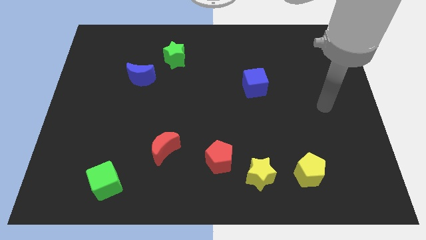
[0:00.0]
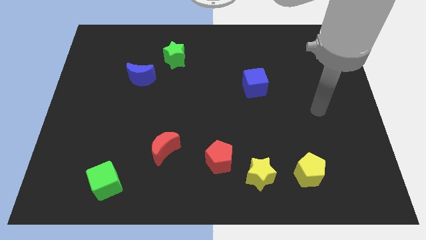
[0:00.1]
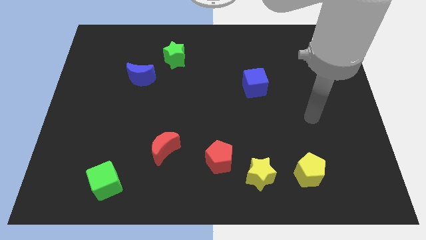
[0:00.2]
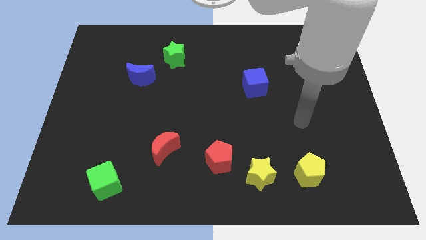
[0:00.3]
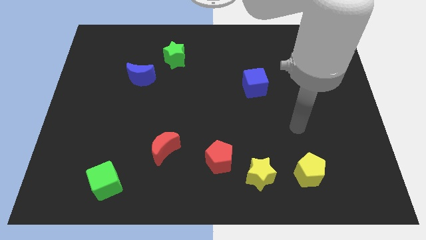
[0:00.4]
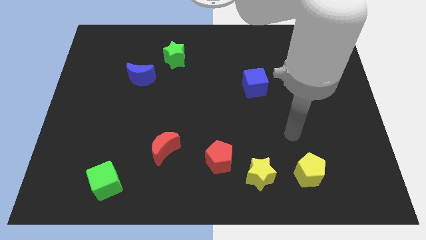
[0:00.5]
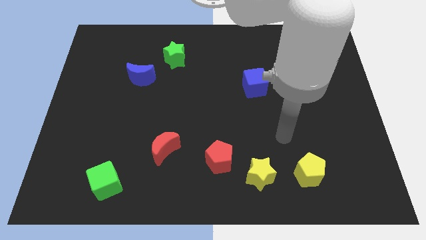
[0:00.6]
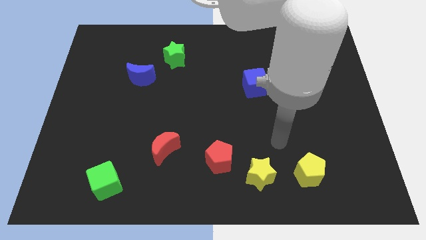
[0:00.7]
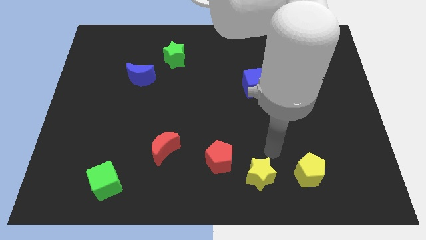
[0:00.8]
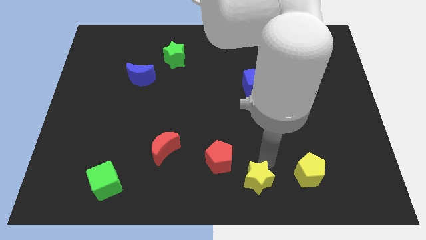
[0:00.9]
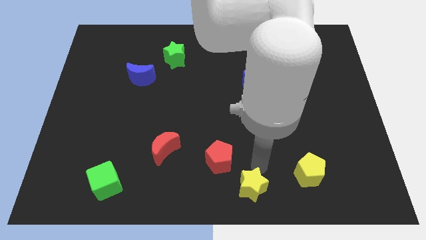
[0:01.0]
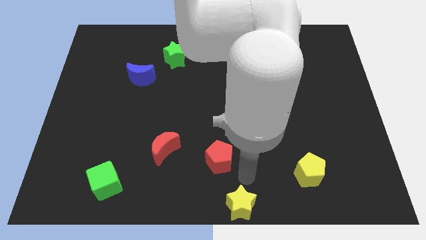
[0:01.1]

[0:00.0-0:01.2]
pull the red pentagon apart from the yellow star

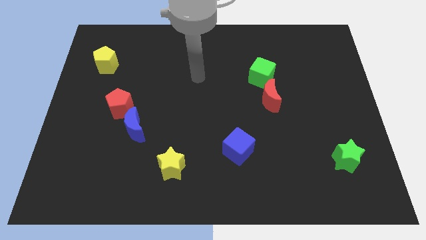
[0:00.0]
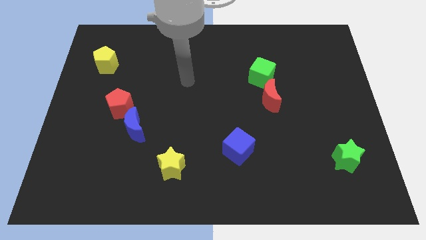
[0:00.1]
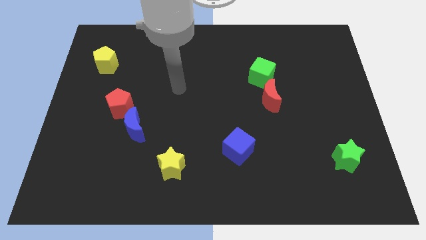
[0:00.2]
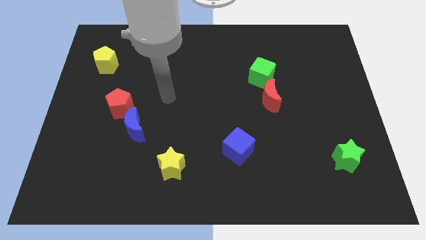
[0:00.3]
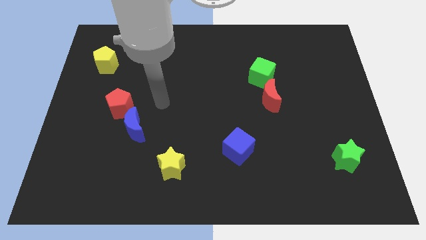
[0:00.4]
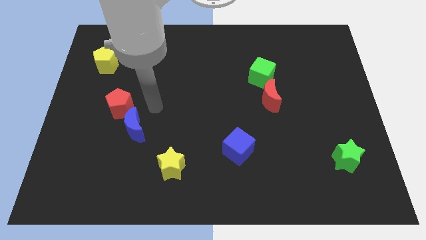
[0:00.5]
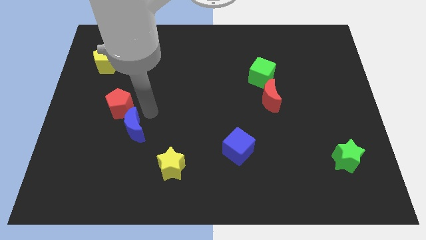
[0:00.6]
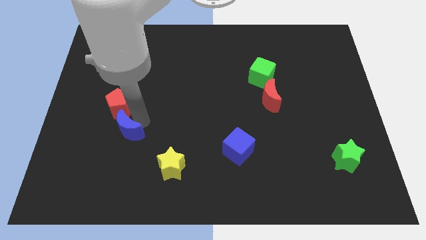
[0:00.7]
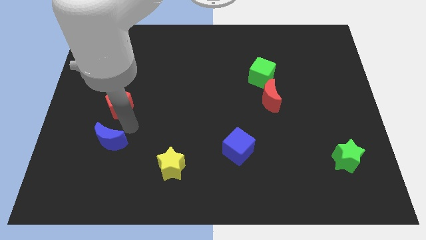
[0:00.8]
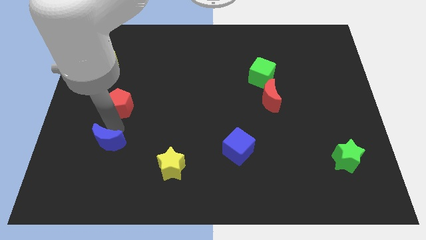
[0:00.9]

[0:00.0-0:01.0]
separate the red pentagon from the blue moon

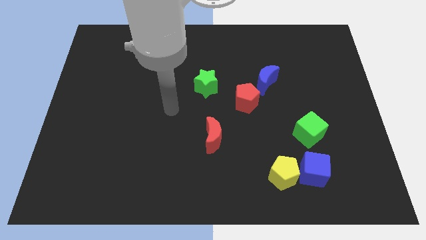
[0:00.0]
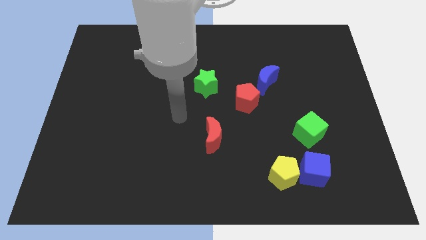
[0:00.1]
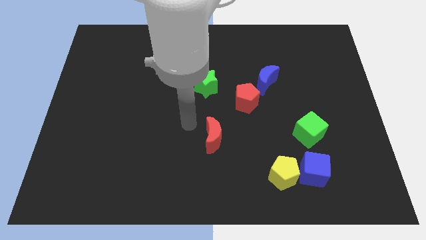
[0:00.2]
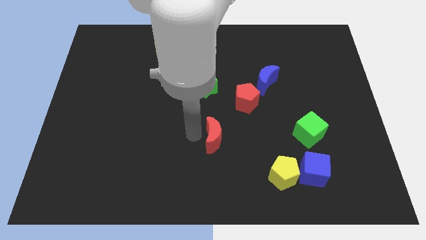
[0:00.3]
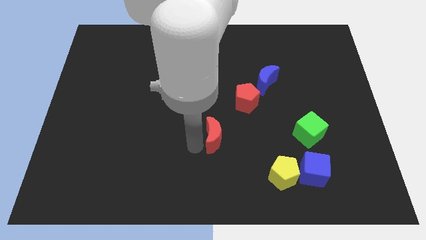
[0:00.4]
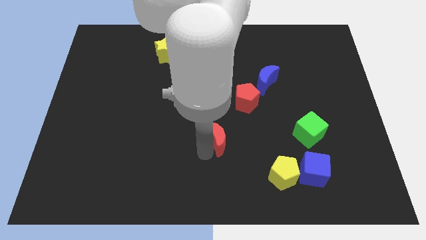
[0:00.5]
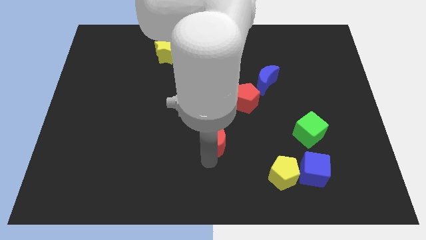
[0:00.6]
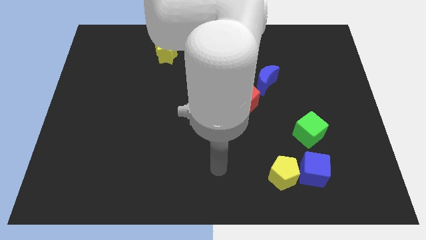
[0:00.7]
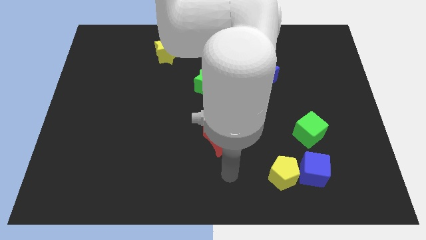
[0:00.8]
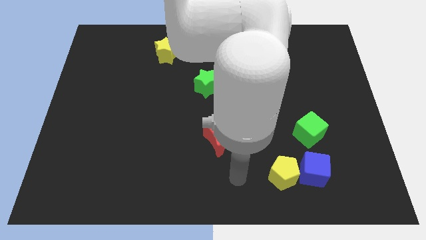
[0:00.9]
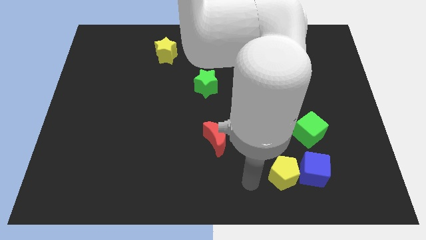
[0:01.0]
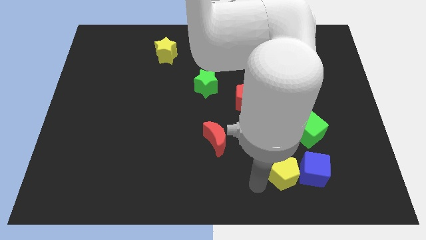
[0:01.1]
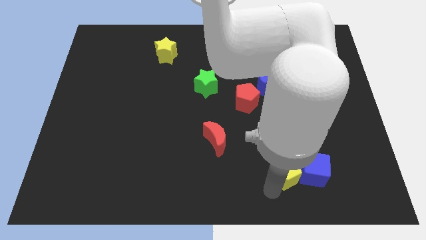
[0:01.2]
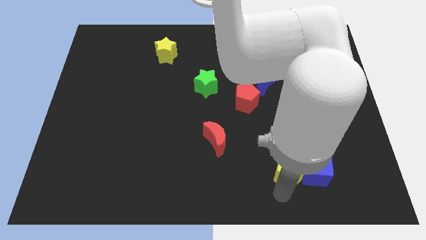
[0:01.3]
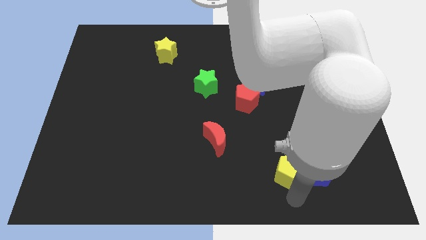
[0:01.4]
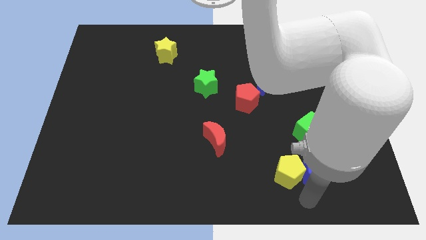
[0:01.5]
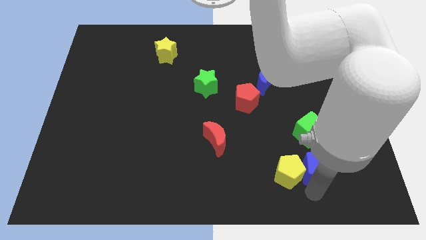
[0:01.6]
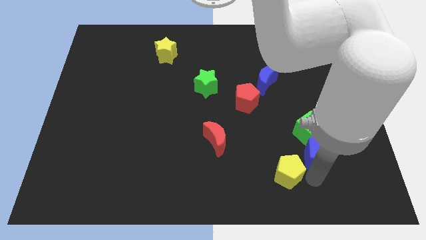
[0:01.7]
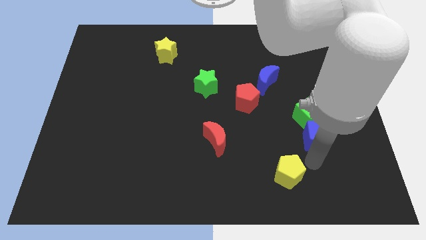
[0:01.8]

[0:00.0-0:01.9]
pull the yellow pentagon apart from the blue cube

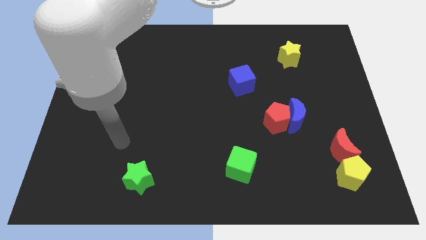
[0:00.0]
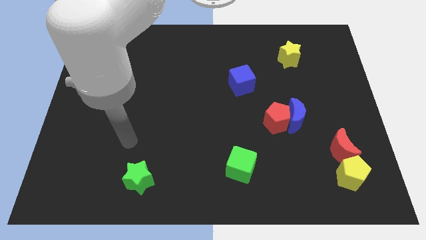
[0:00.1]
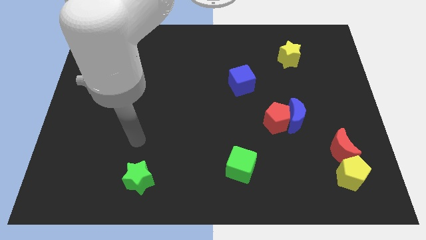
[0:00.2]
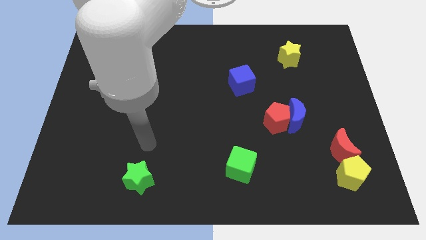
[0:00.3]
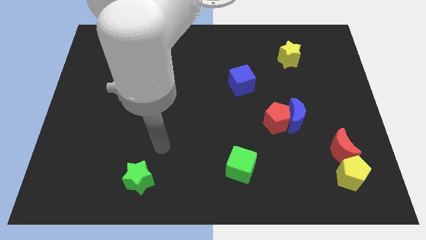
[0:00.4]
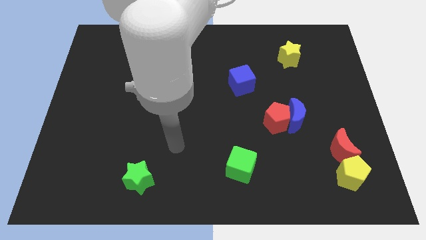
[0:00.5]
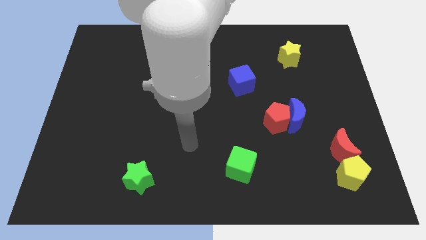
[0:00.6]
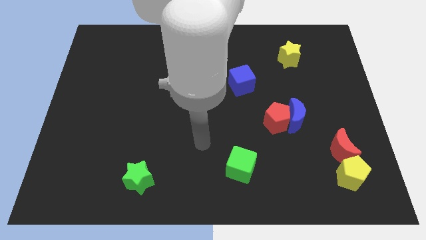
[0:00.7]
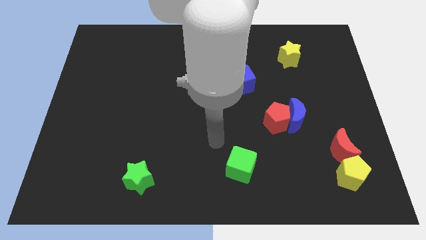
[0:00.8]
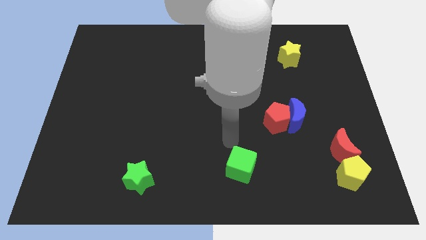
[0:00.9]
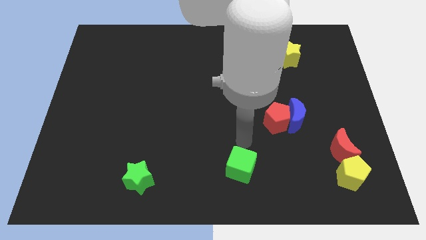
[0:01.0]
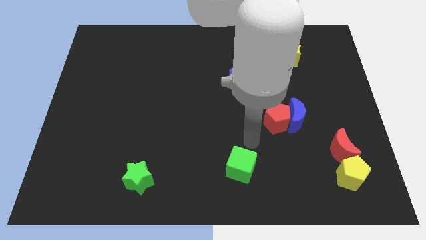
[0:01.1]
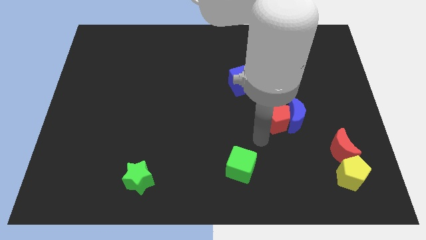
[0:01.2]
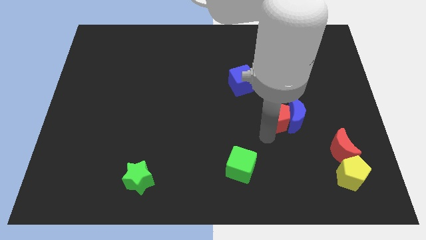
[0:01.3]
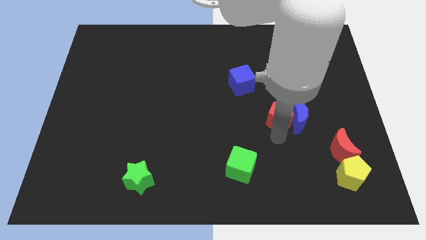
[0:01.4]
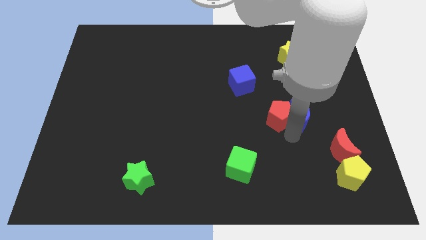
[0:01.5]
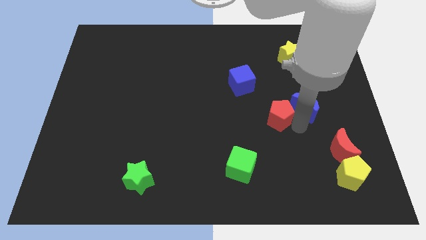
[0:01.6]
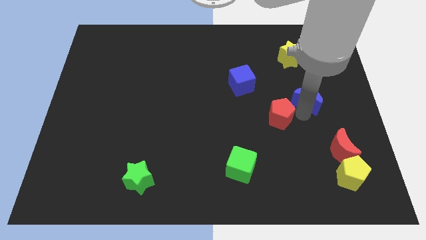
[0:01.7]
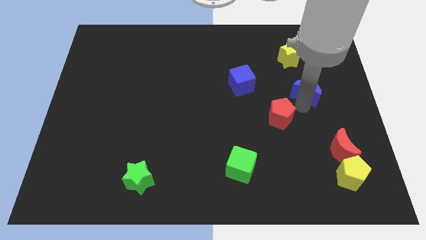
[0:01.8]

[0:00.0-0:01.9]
pull the red pentagon apart from the blue moon

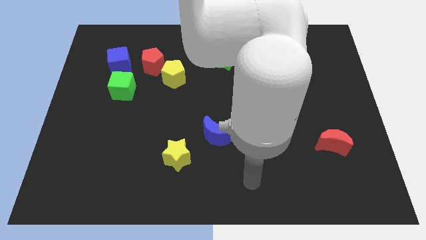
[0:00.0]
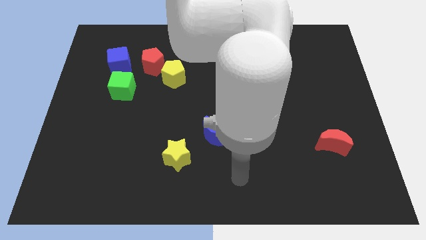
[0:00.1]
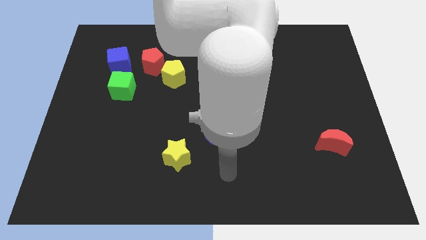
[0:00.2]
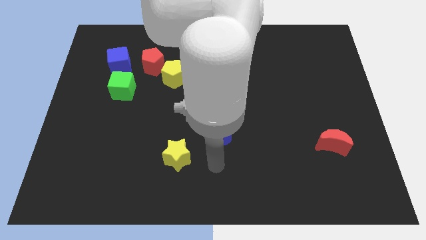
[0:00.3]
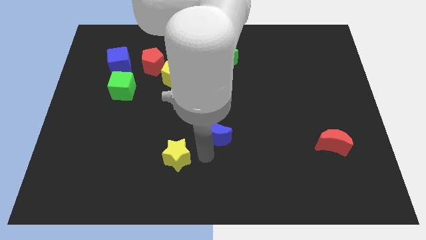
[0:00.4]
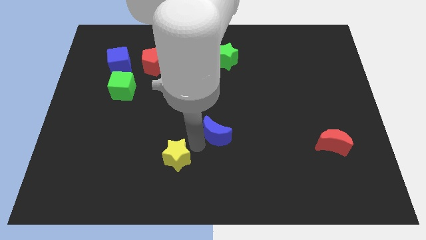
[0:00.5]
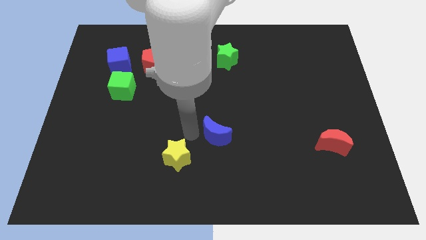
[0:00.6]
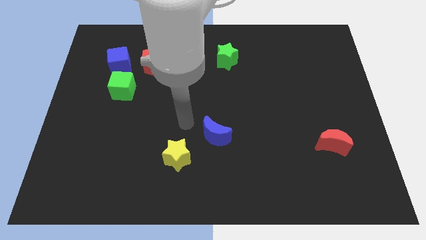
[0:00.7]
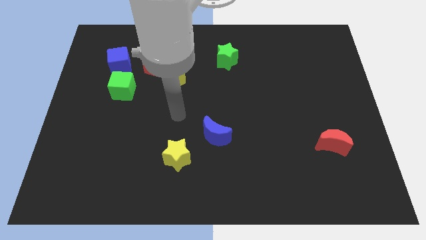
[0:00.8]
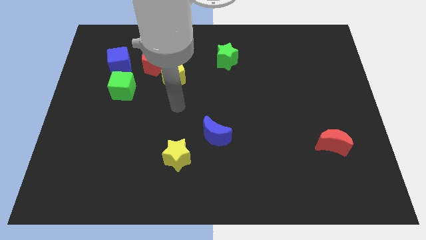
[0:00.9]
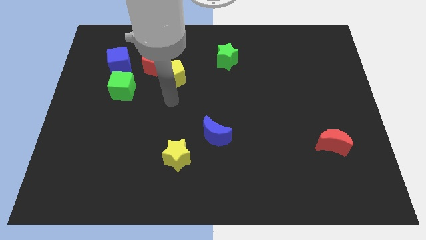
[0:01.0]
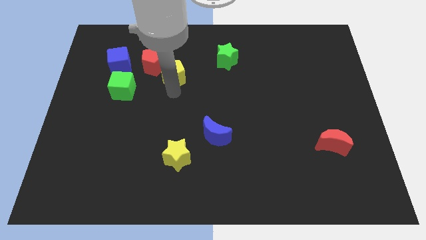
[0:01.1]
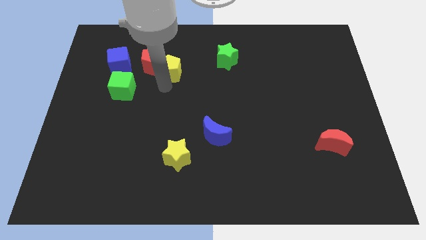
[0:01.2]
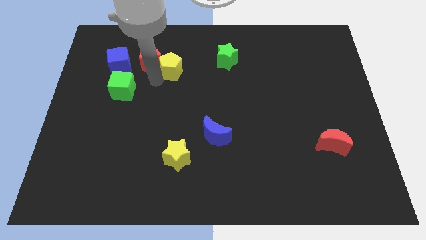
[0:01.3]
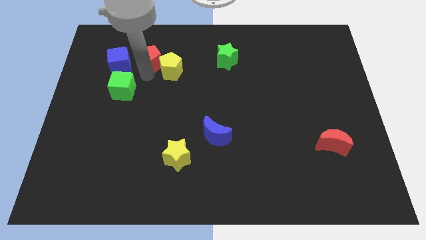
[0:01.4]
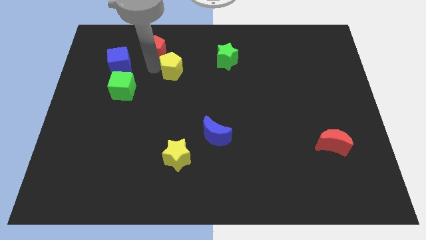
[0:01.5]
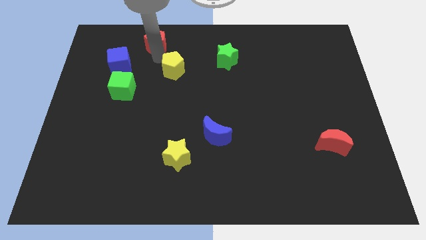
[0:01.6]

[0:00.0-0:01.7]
move the yellow pentagon away from the red pentagon

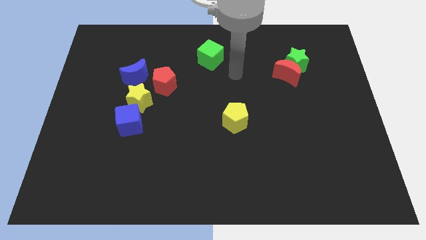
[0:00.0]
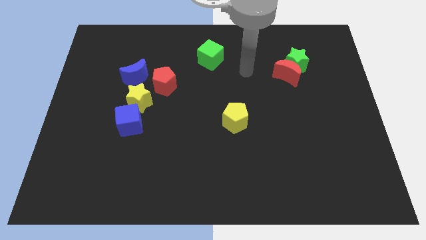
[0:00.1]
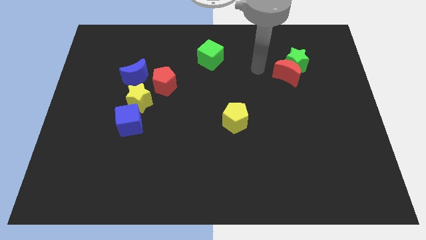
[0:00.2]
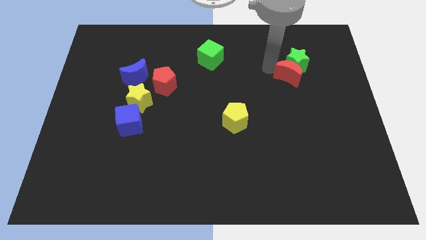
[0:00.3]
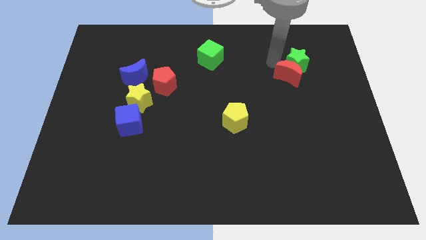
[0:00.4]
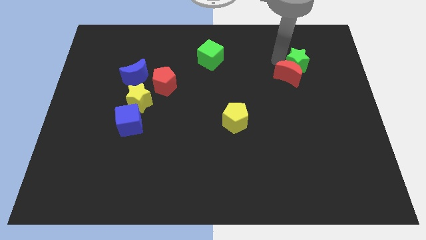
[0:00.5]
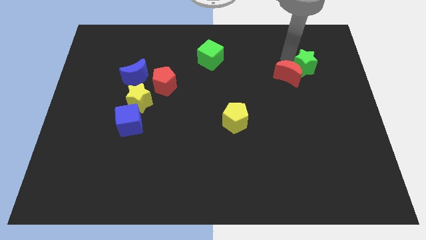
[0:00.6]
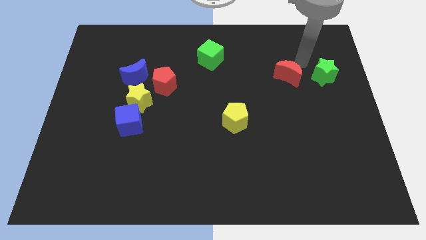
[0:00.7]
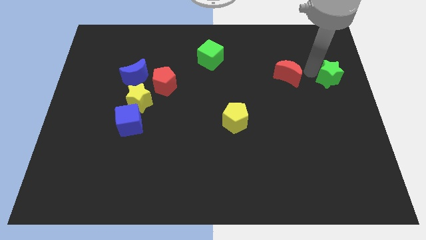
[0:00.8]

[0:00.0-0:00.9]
separate the red moon from the green star

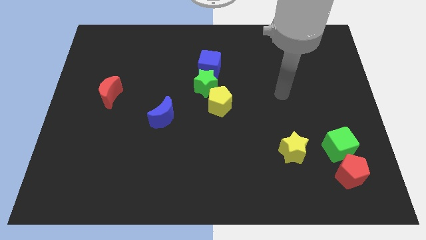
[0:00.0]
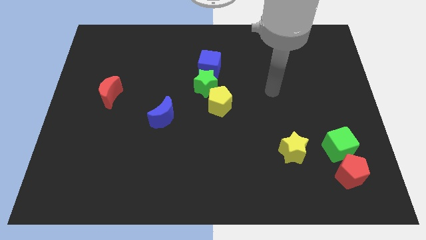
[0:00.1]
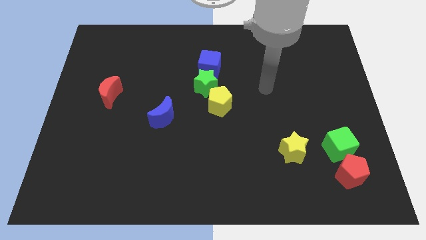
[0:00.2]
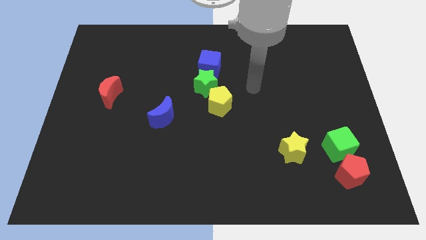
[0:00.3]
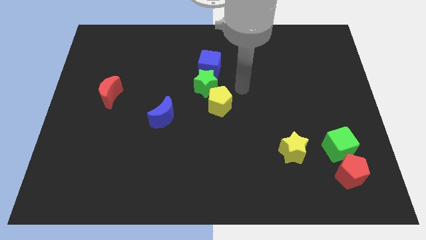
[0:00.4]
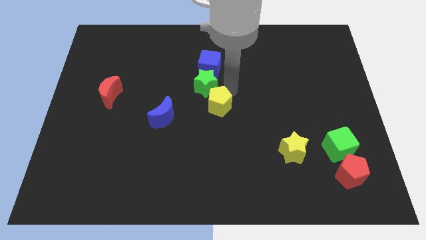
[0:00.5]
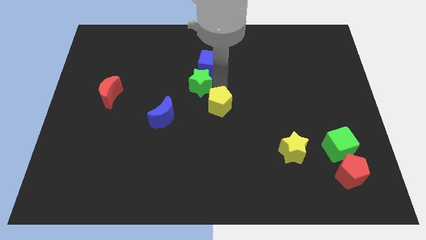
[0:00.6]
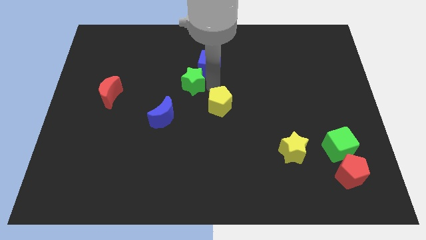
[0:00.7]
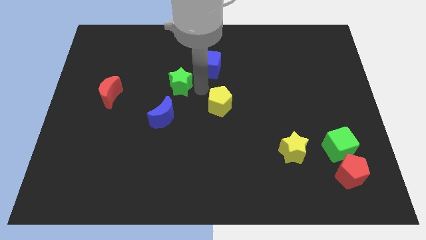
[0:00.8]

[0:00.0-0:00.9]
separate the yellow pentagon from the green star
